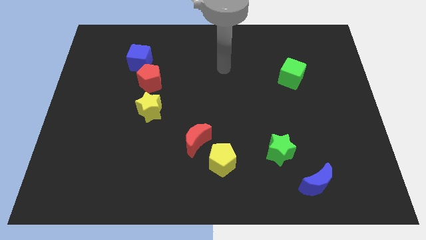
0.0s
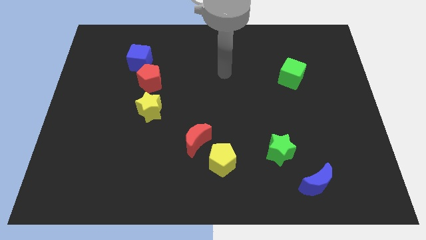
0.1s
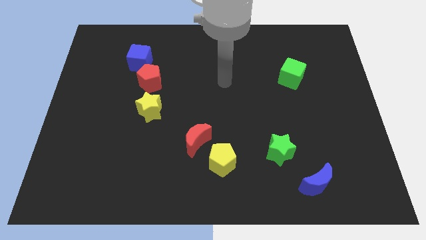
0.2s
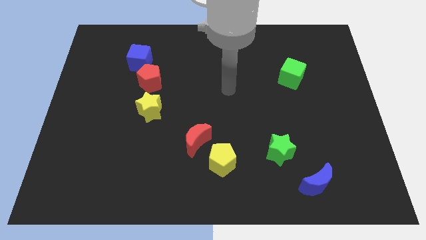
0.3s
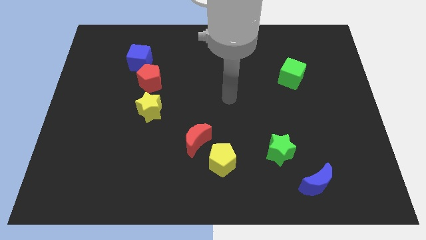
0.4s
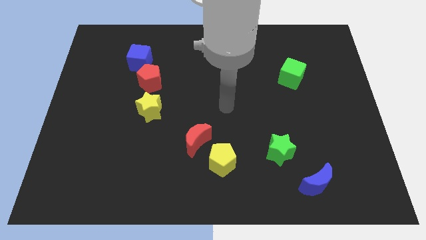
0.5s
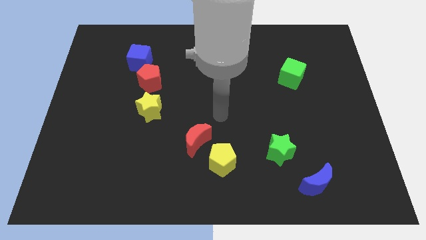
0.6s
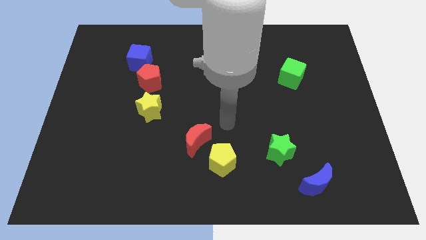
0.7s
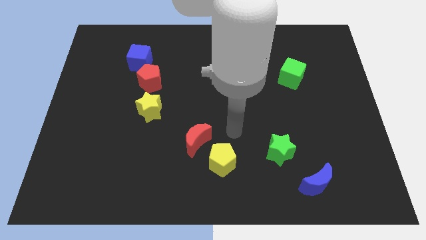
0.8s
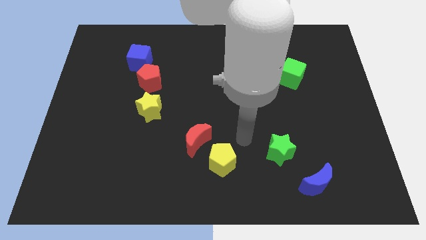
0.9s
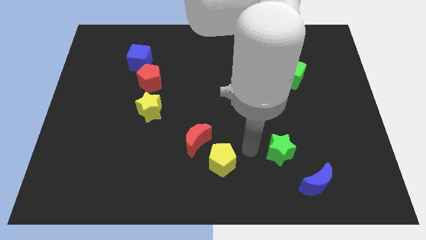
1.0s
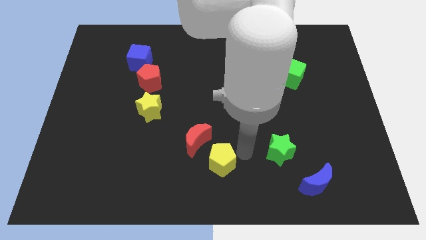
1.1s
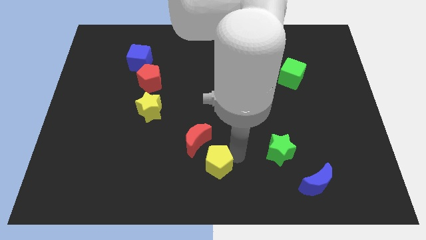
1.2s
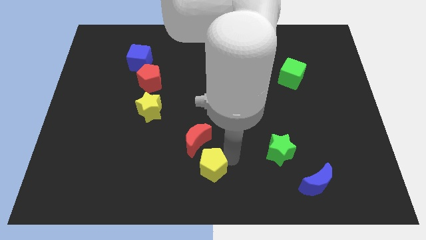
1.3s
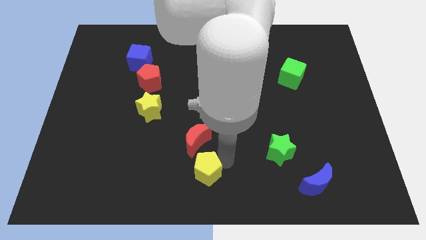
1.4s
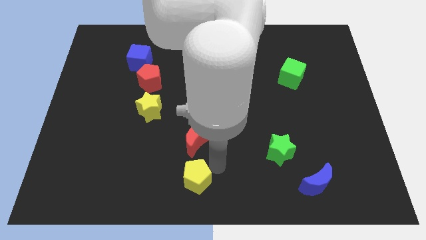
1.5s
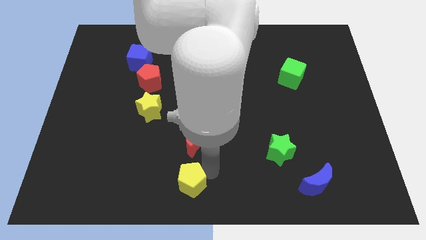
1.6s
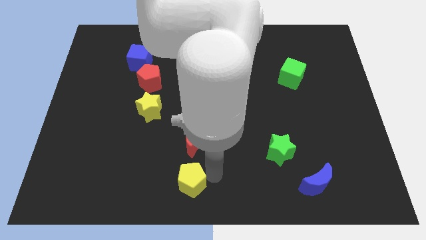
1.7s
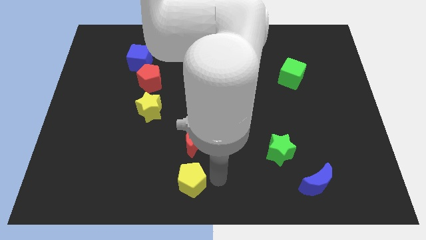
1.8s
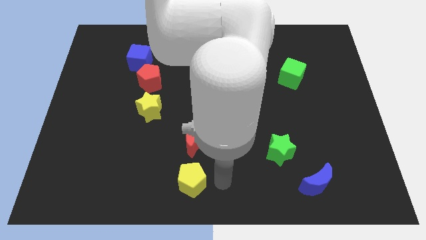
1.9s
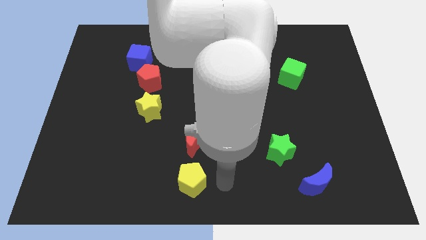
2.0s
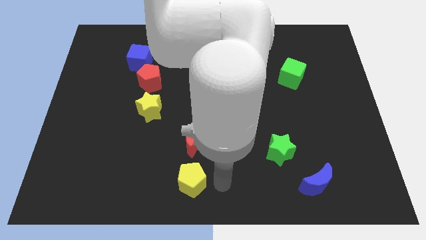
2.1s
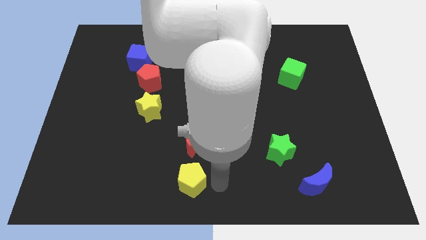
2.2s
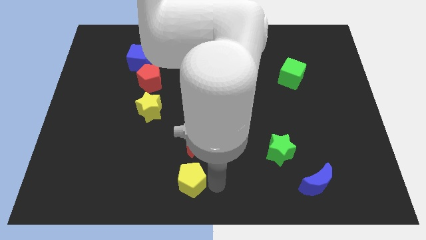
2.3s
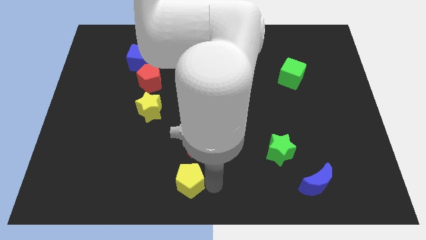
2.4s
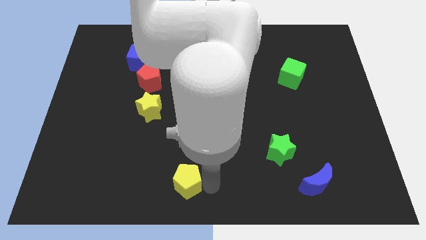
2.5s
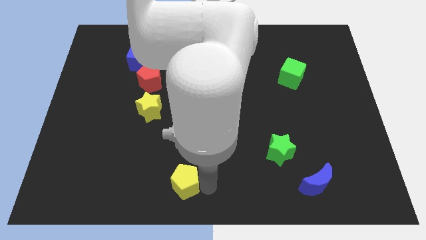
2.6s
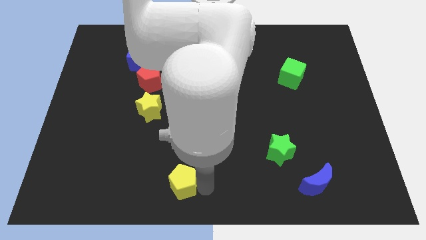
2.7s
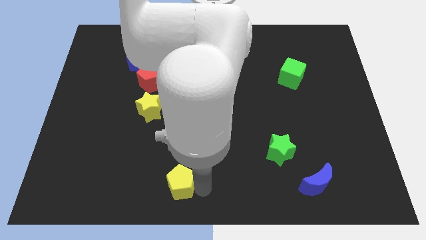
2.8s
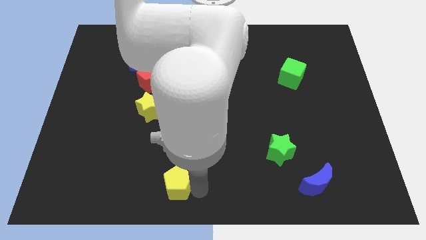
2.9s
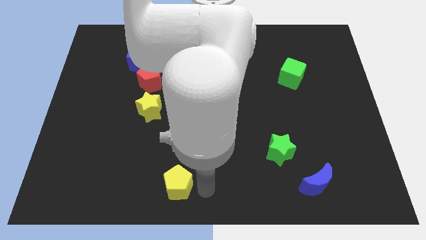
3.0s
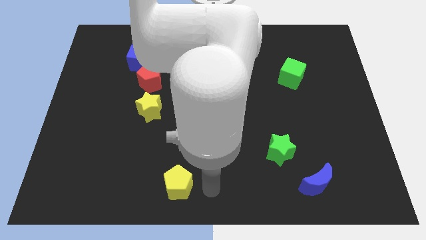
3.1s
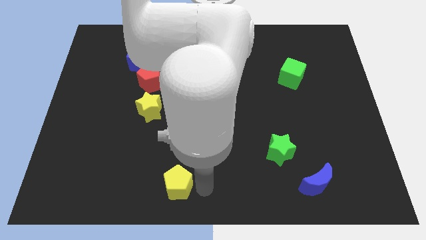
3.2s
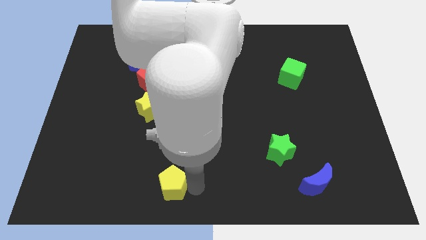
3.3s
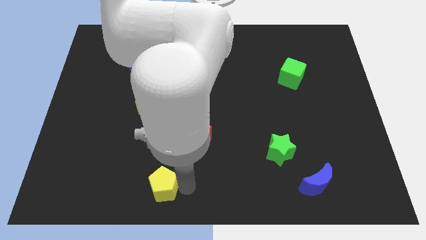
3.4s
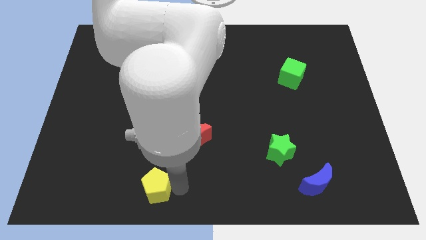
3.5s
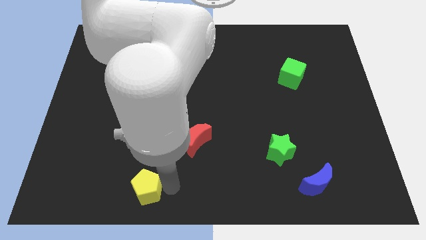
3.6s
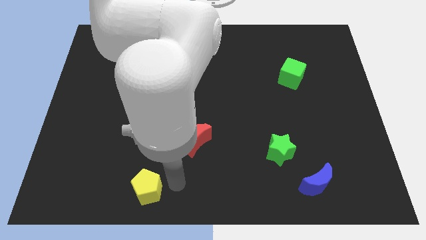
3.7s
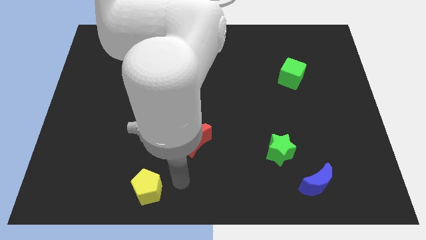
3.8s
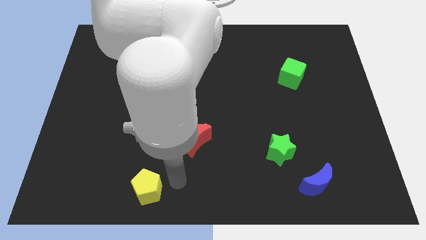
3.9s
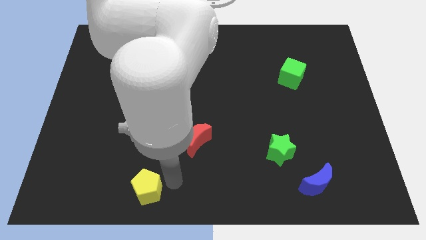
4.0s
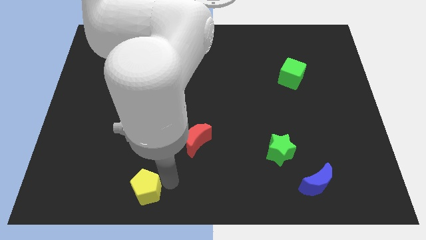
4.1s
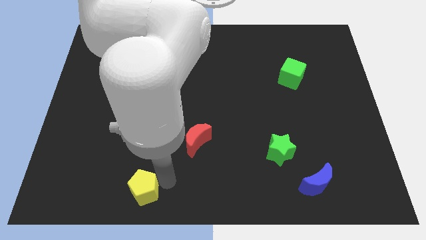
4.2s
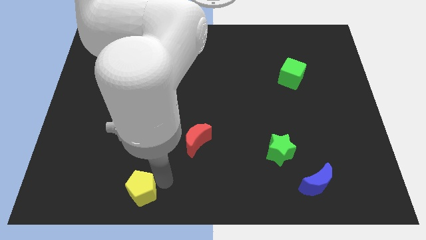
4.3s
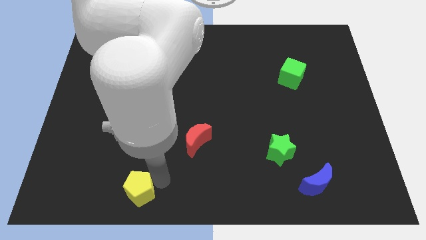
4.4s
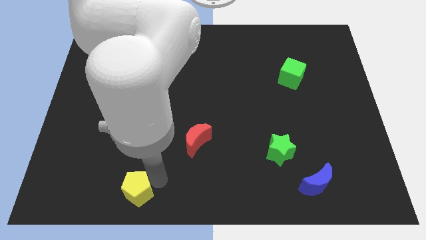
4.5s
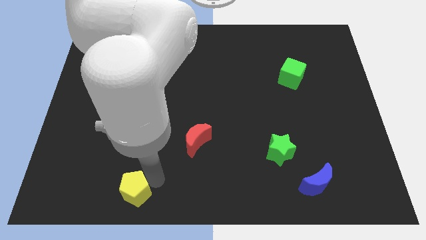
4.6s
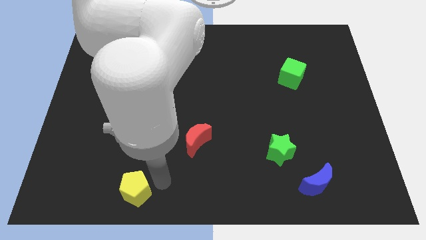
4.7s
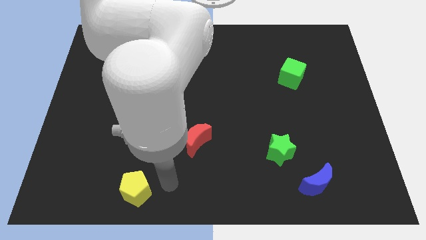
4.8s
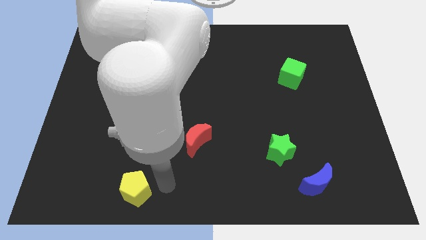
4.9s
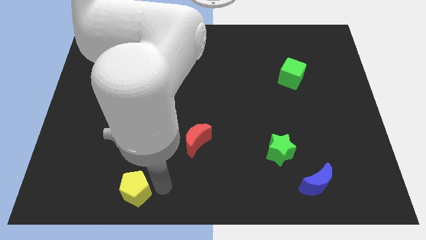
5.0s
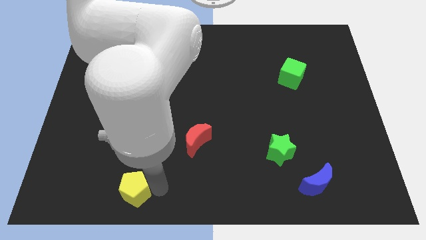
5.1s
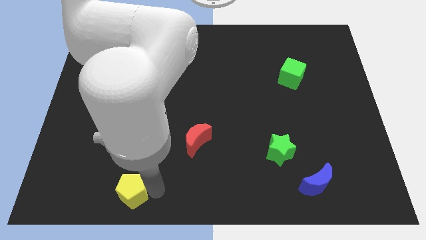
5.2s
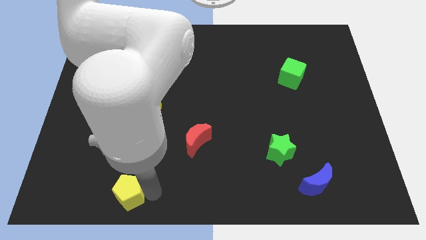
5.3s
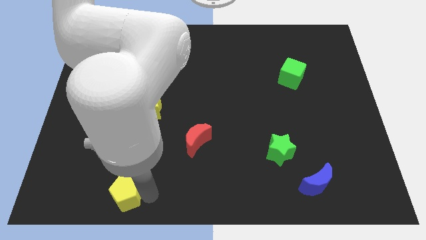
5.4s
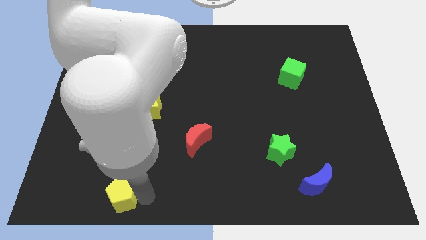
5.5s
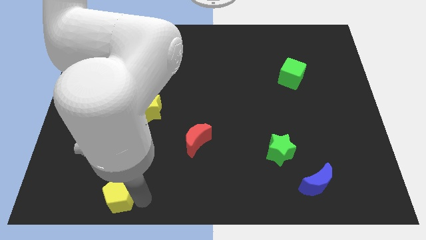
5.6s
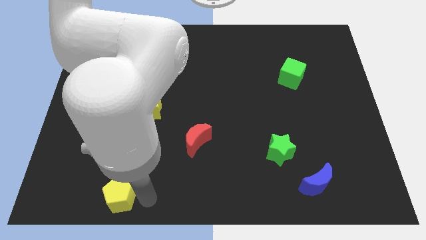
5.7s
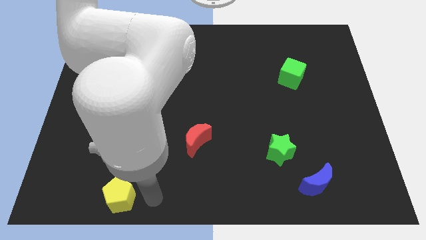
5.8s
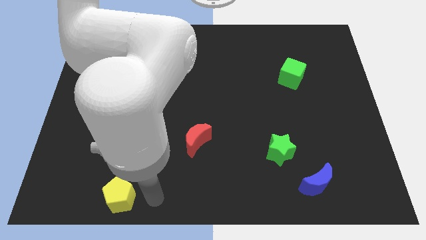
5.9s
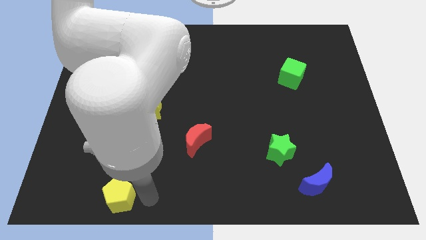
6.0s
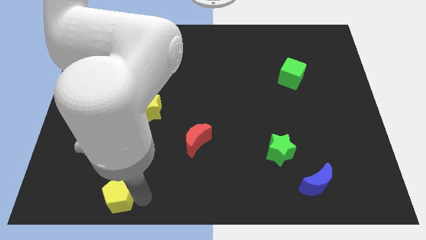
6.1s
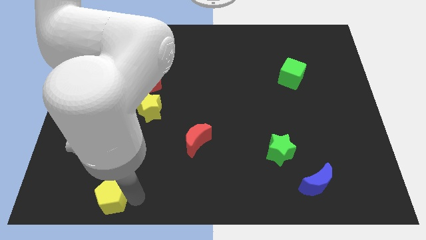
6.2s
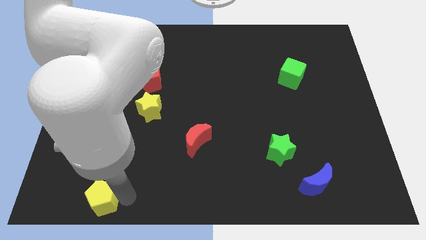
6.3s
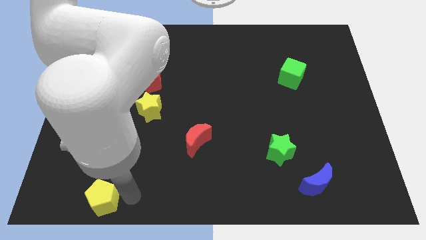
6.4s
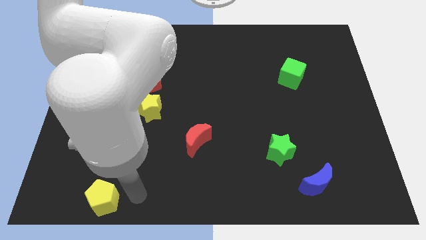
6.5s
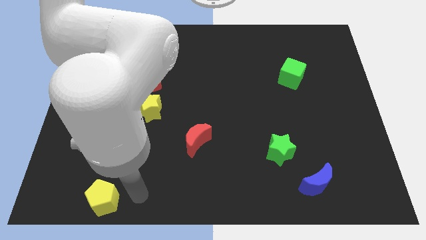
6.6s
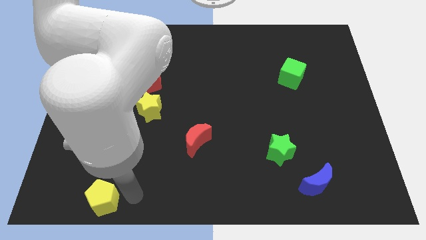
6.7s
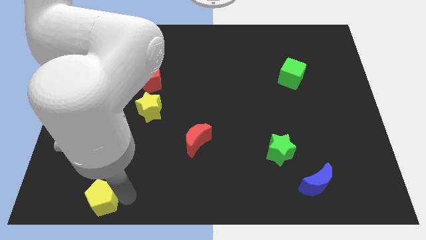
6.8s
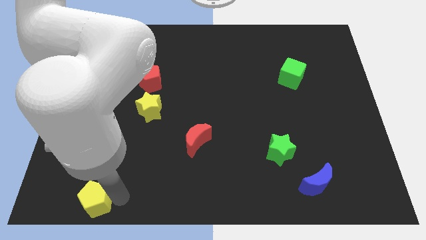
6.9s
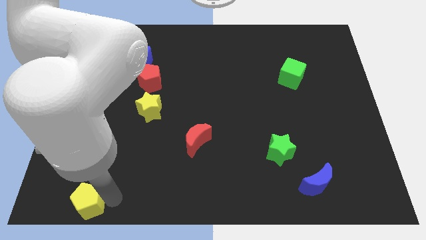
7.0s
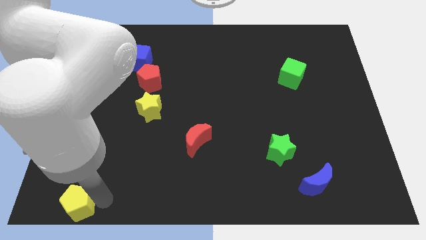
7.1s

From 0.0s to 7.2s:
slide the yellow pentagon to the bottom left corner

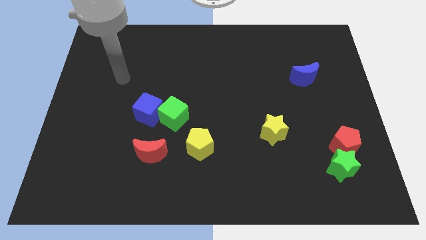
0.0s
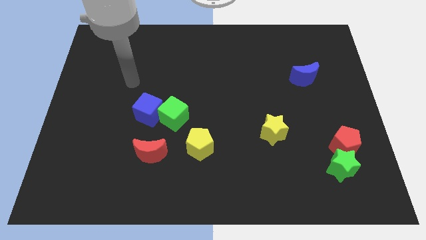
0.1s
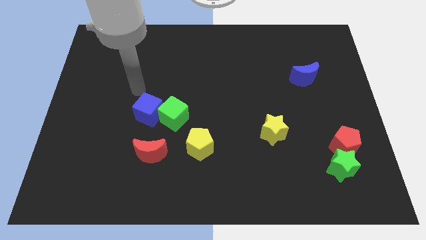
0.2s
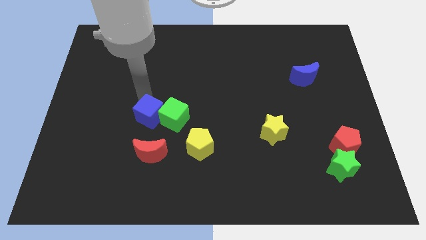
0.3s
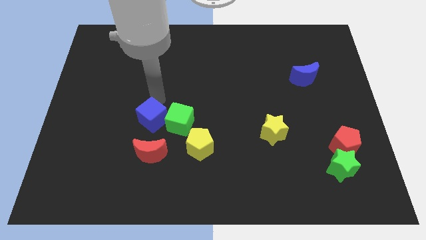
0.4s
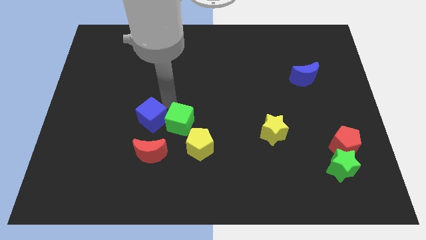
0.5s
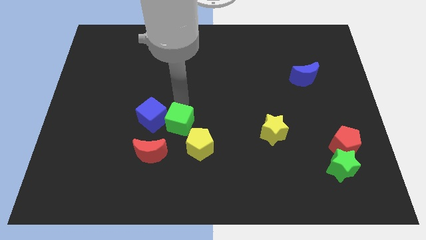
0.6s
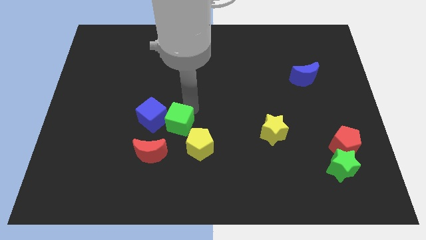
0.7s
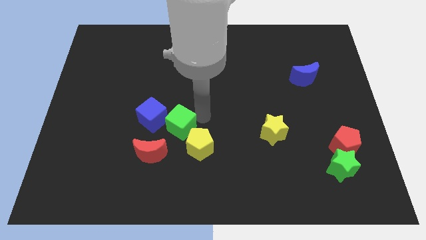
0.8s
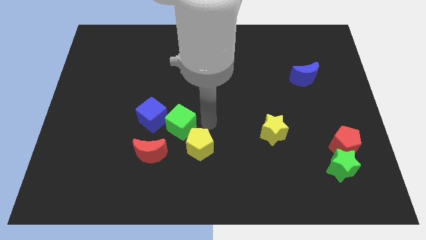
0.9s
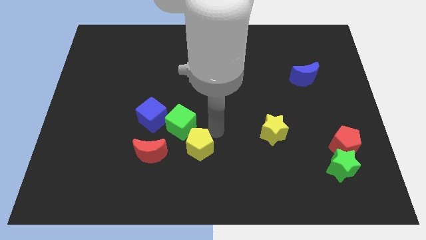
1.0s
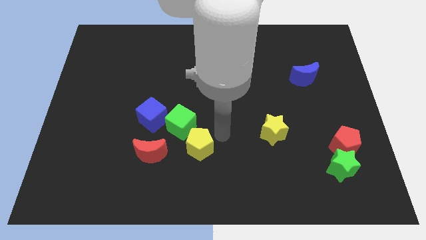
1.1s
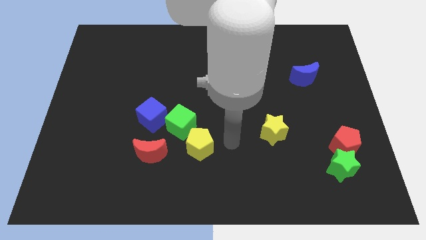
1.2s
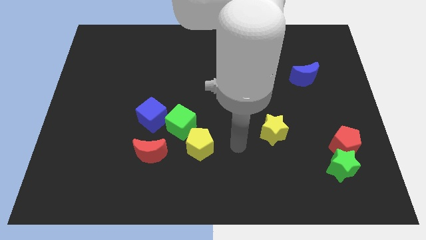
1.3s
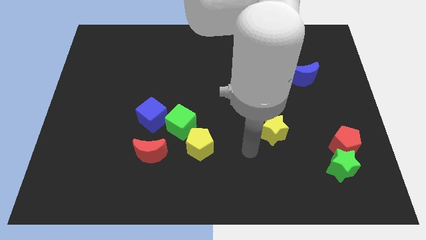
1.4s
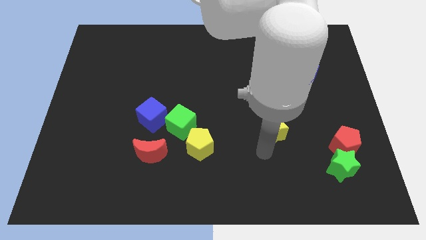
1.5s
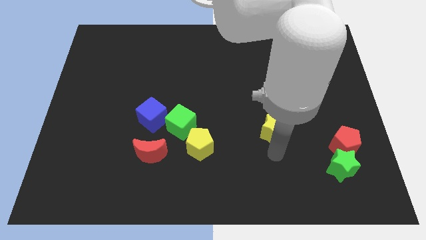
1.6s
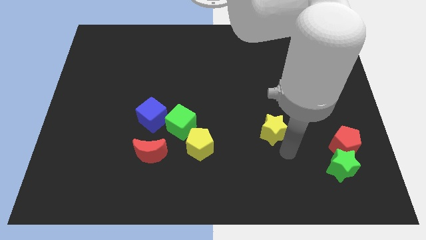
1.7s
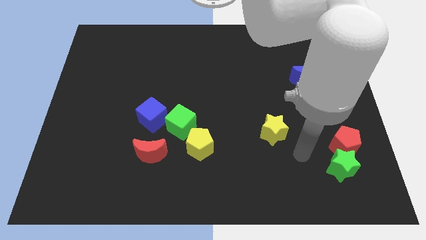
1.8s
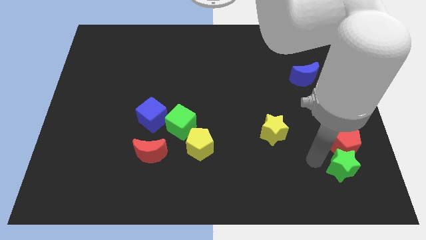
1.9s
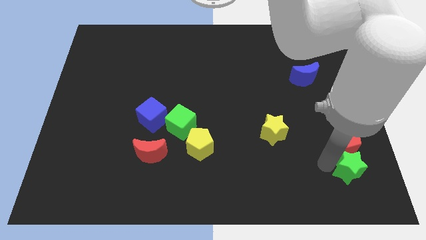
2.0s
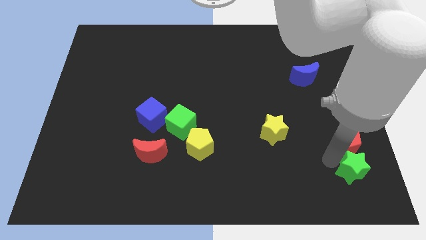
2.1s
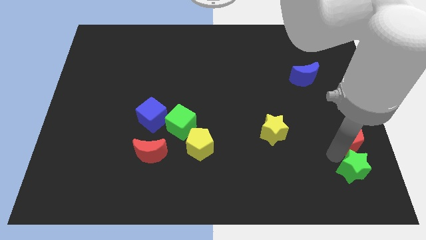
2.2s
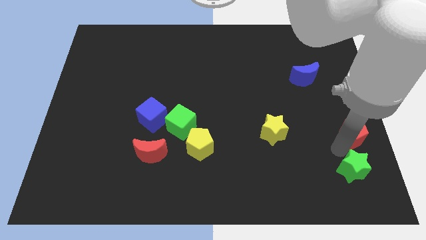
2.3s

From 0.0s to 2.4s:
put the red pentagon to the right side
